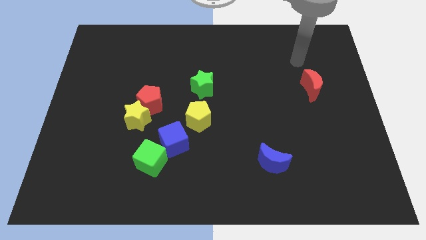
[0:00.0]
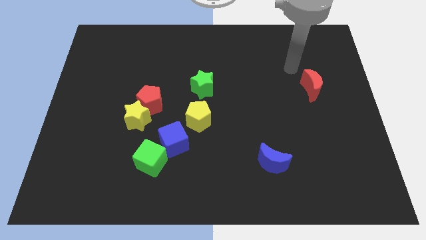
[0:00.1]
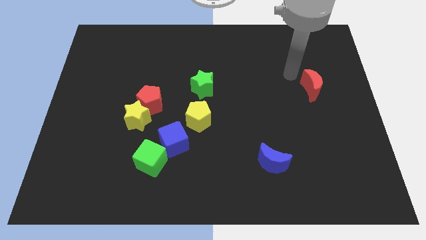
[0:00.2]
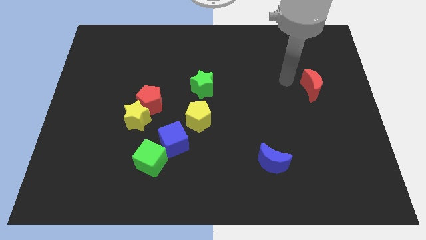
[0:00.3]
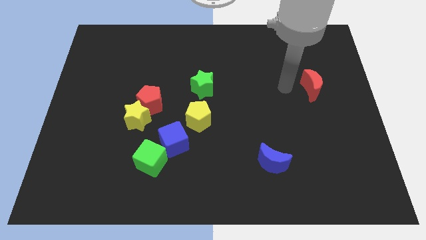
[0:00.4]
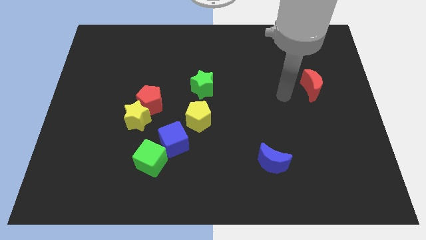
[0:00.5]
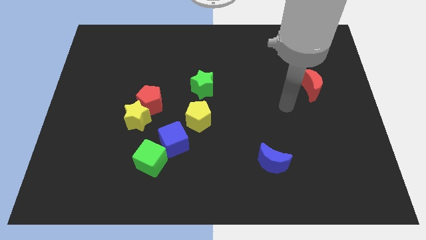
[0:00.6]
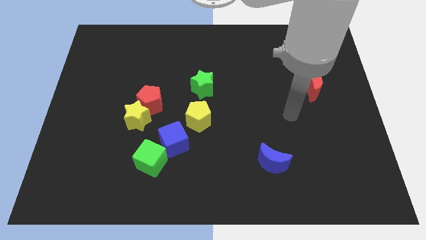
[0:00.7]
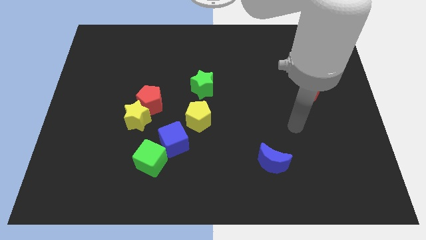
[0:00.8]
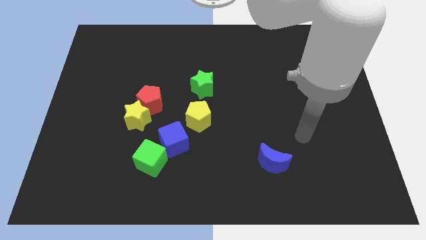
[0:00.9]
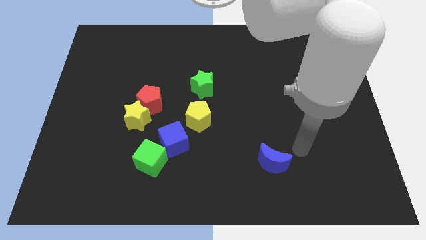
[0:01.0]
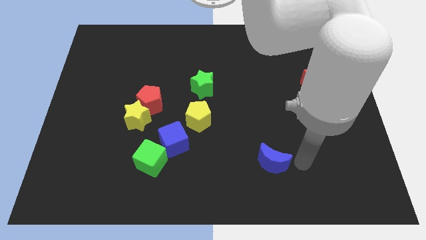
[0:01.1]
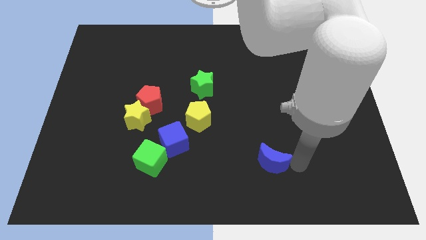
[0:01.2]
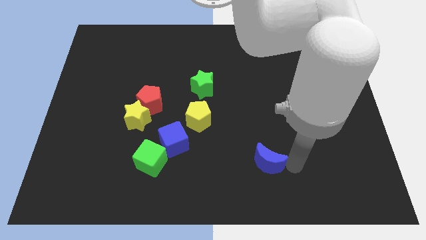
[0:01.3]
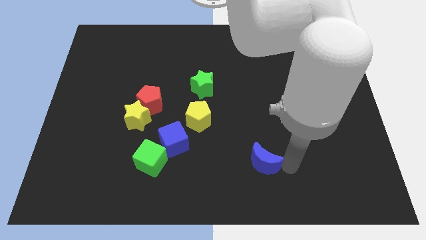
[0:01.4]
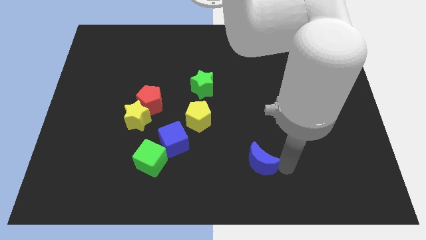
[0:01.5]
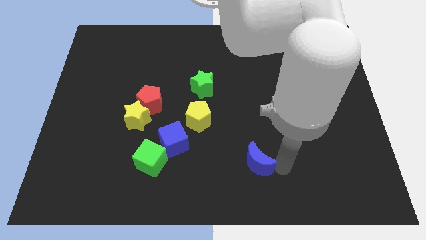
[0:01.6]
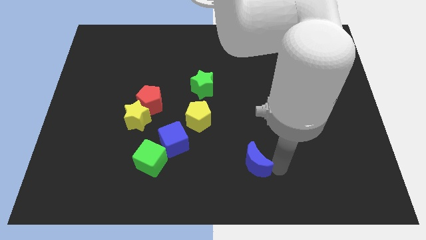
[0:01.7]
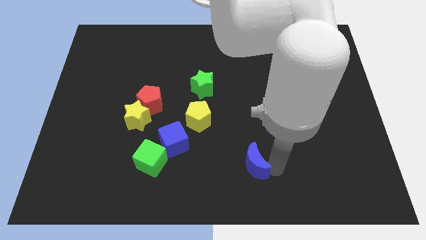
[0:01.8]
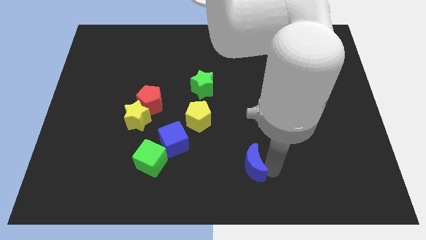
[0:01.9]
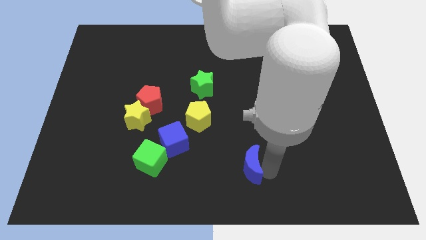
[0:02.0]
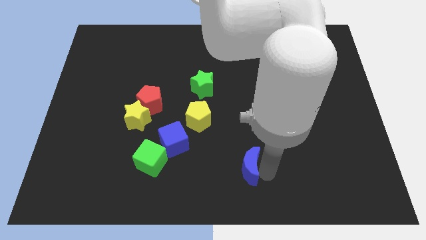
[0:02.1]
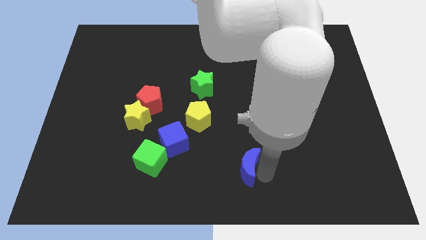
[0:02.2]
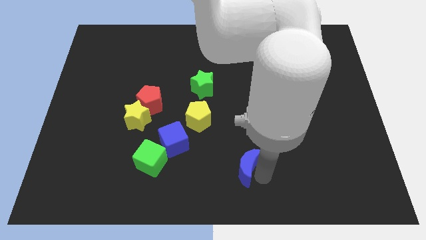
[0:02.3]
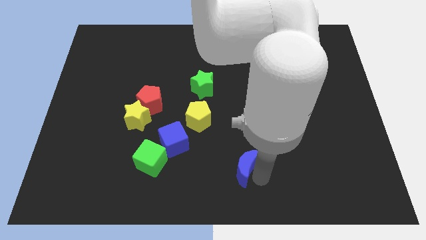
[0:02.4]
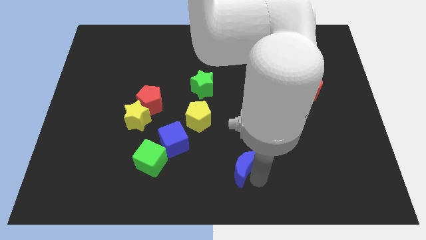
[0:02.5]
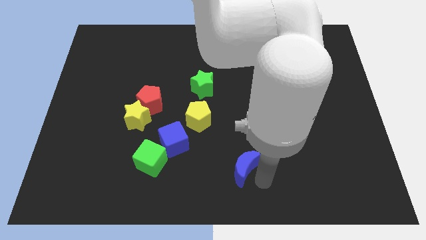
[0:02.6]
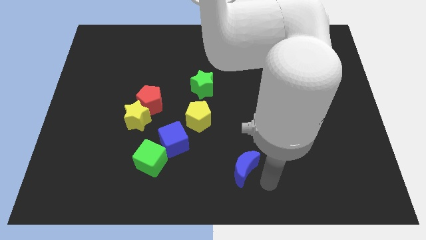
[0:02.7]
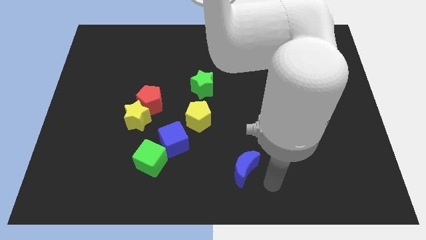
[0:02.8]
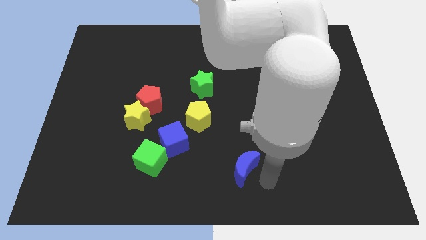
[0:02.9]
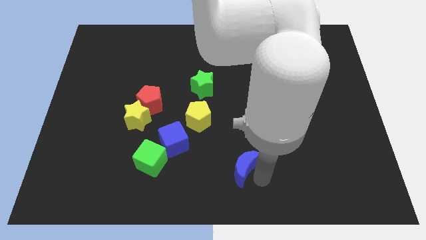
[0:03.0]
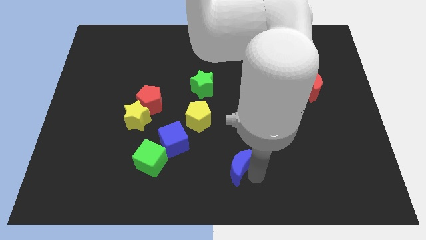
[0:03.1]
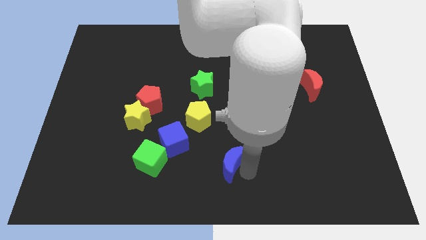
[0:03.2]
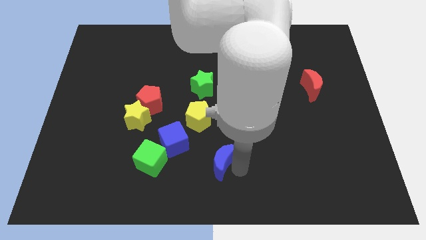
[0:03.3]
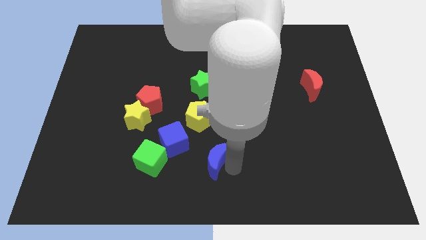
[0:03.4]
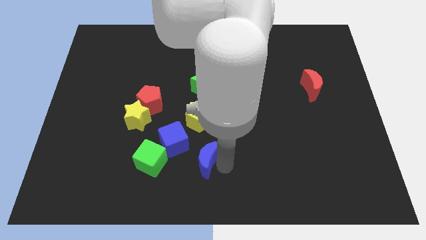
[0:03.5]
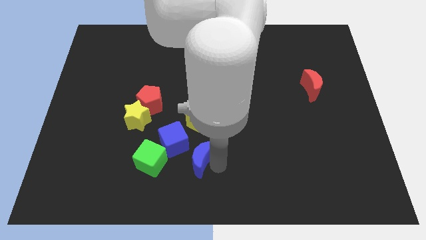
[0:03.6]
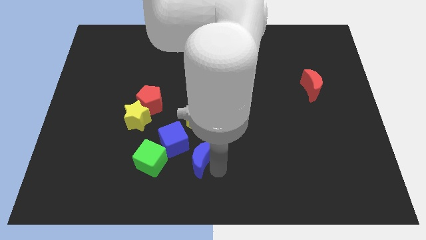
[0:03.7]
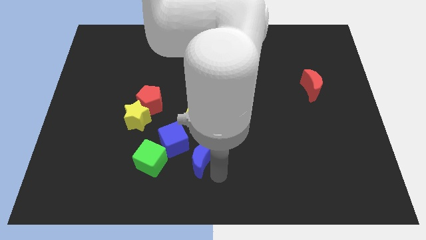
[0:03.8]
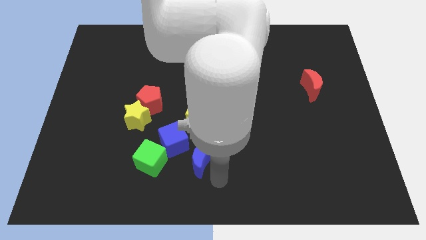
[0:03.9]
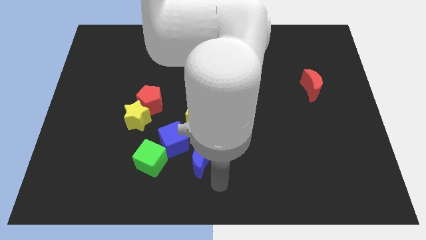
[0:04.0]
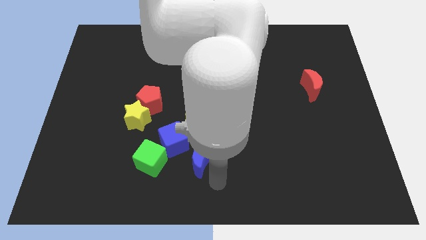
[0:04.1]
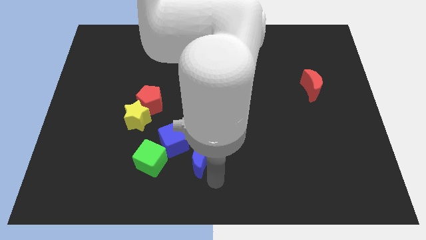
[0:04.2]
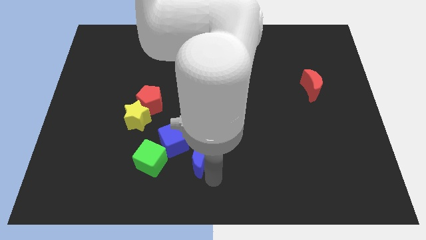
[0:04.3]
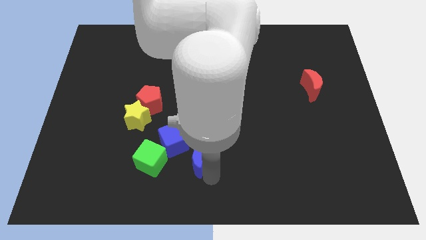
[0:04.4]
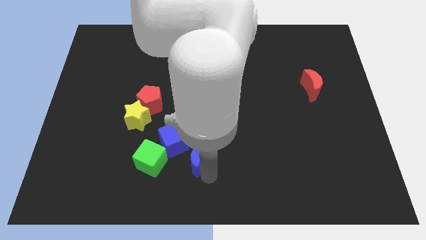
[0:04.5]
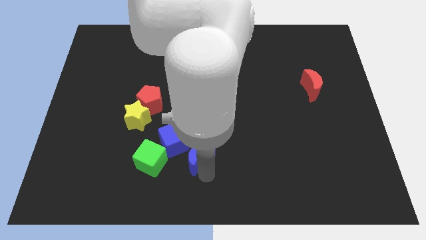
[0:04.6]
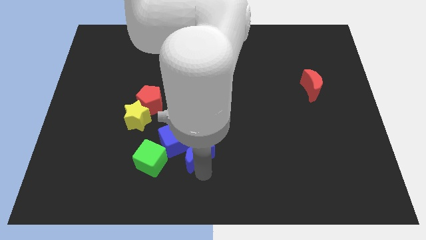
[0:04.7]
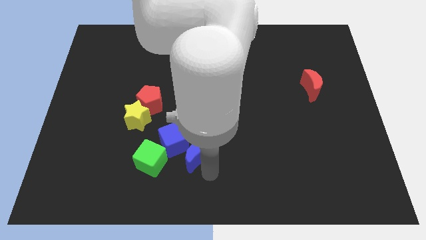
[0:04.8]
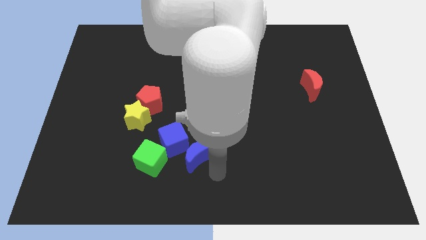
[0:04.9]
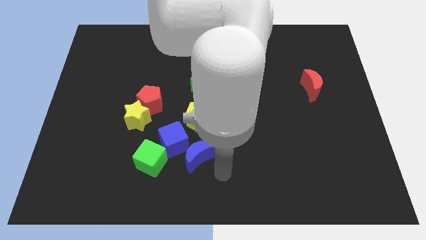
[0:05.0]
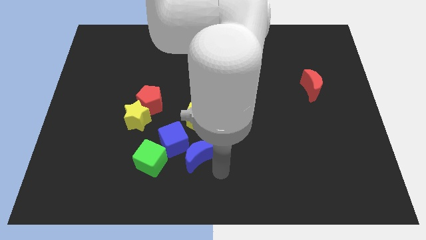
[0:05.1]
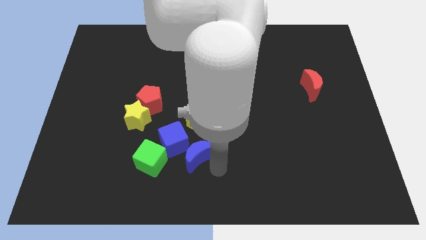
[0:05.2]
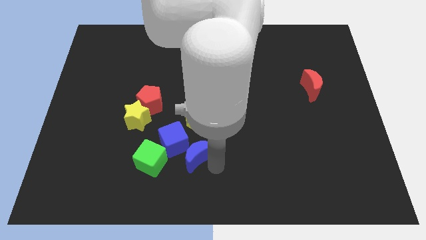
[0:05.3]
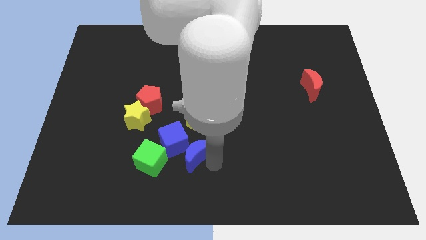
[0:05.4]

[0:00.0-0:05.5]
push the blue moon next to the blue cube

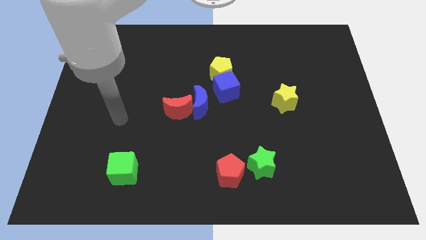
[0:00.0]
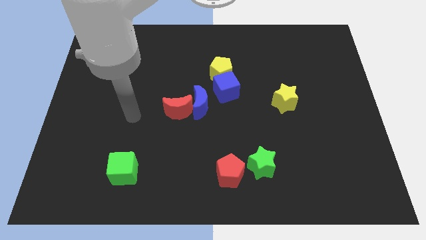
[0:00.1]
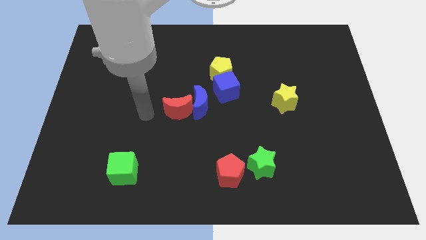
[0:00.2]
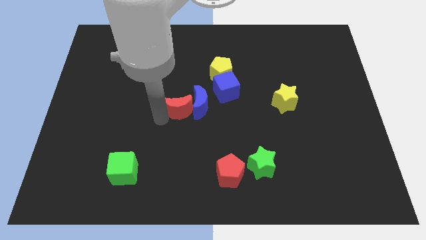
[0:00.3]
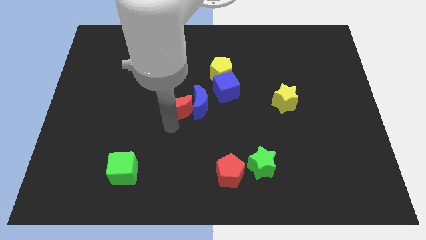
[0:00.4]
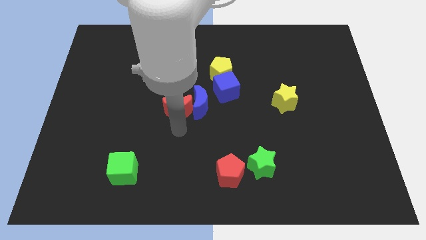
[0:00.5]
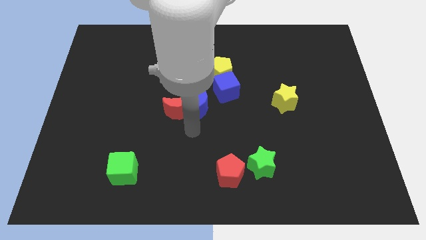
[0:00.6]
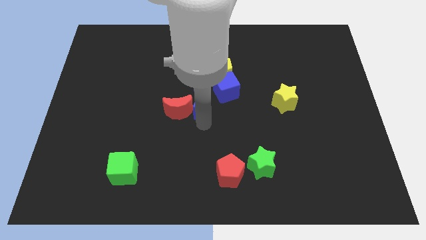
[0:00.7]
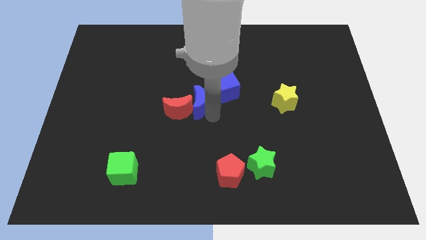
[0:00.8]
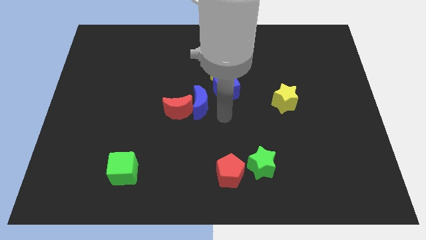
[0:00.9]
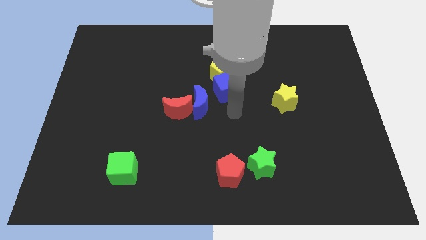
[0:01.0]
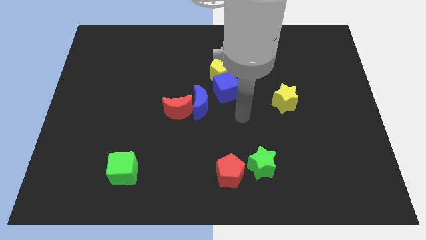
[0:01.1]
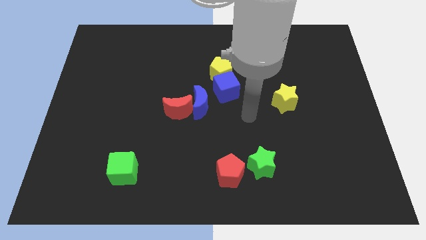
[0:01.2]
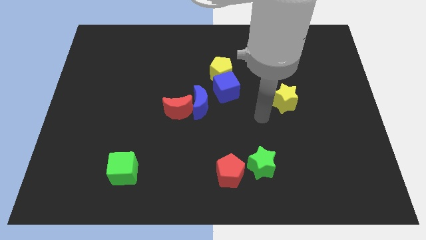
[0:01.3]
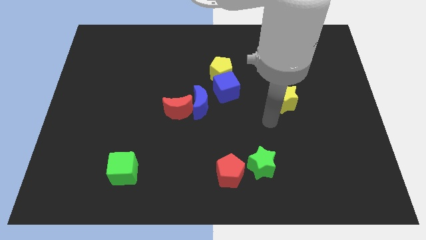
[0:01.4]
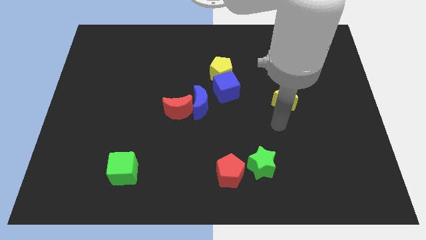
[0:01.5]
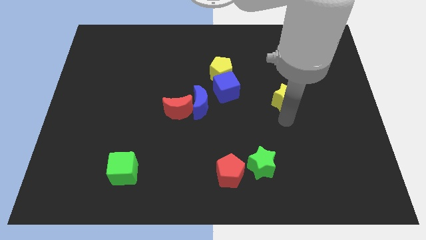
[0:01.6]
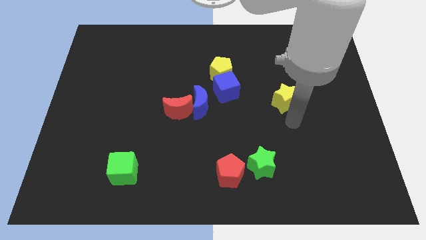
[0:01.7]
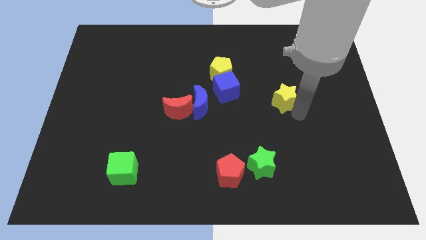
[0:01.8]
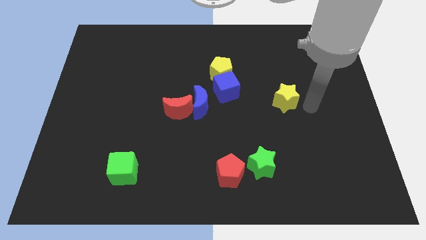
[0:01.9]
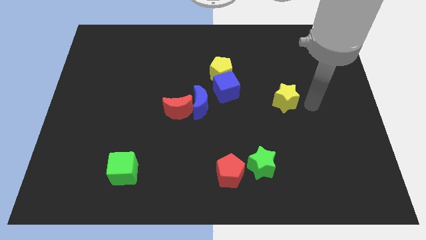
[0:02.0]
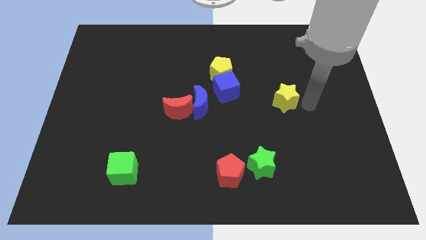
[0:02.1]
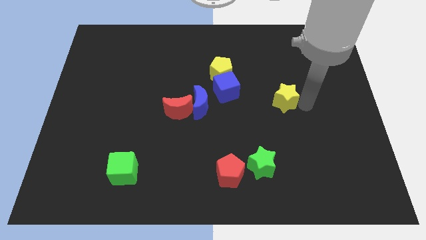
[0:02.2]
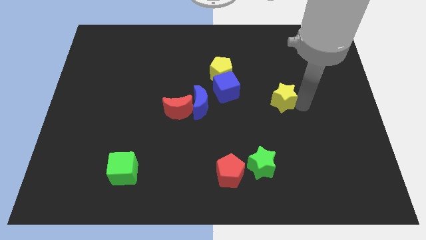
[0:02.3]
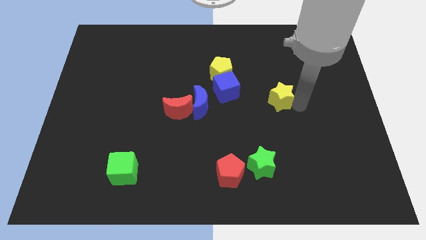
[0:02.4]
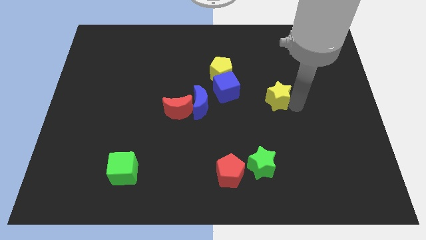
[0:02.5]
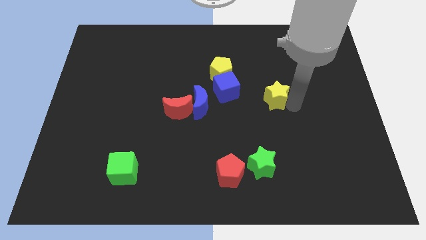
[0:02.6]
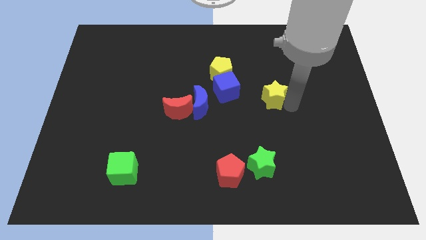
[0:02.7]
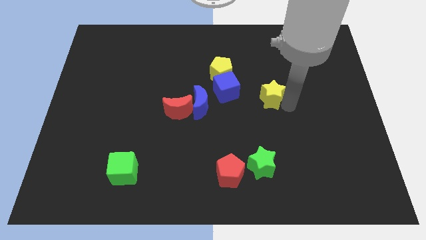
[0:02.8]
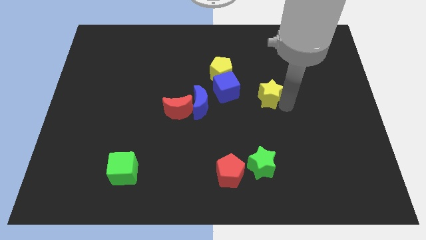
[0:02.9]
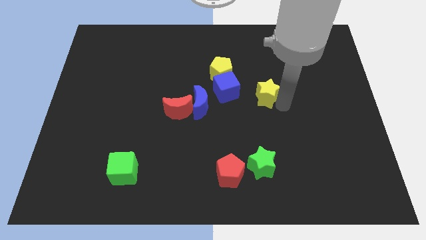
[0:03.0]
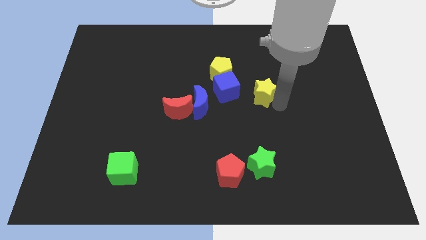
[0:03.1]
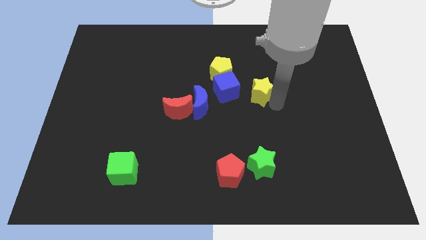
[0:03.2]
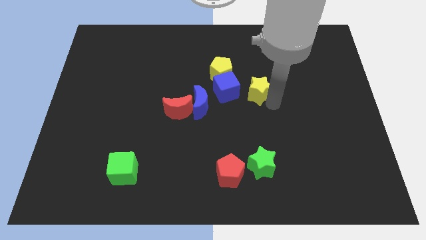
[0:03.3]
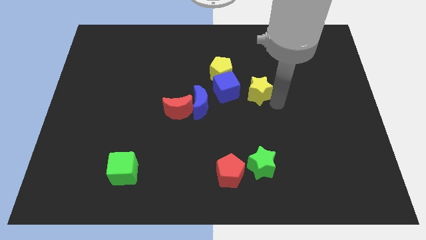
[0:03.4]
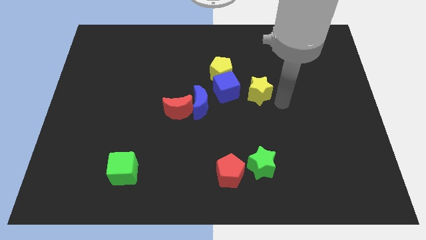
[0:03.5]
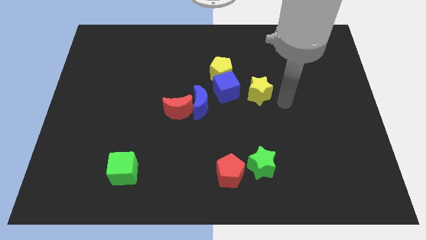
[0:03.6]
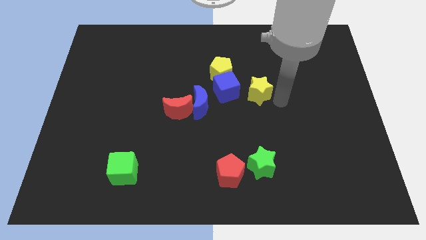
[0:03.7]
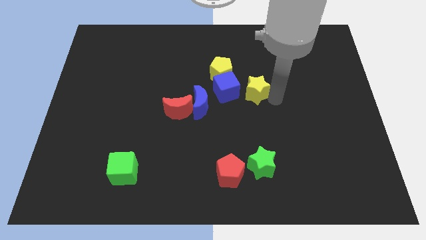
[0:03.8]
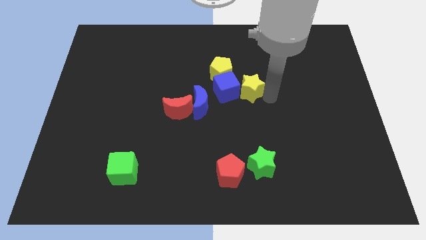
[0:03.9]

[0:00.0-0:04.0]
move the yellow star next to the blue cube
